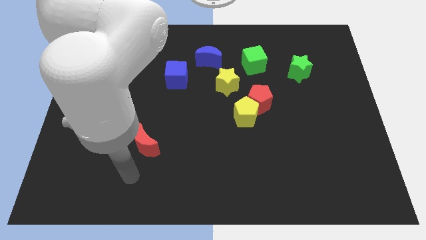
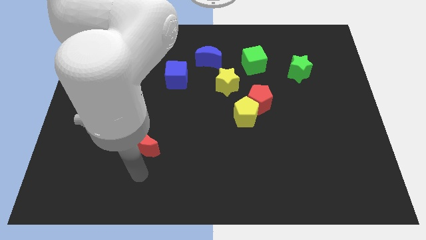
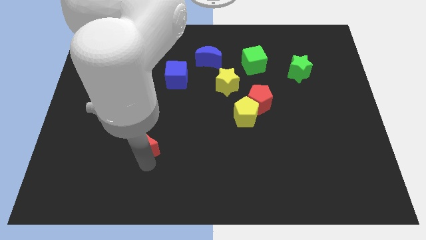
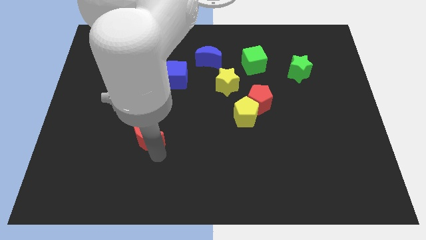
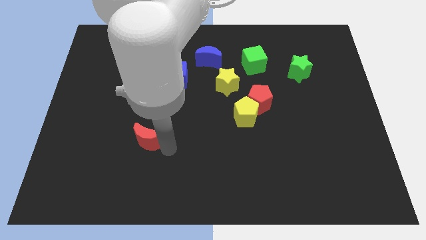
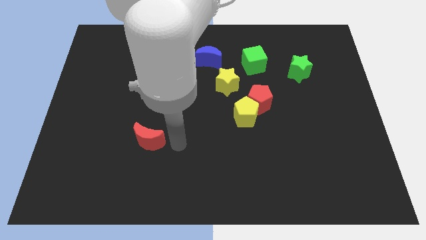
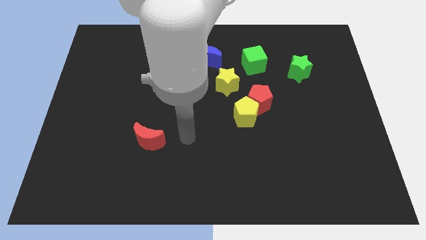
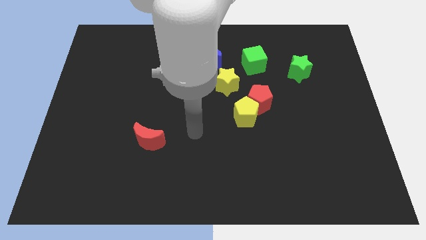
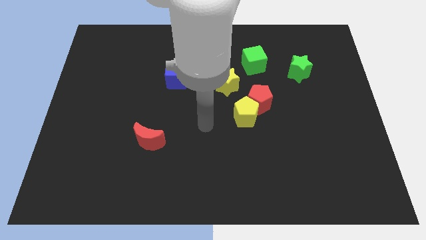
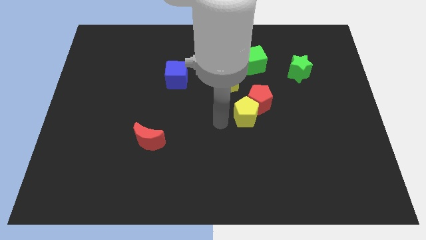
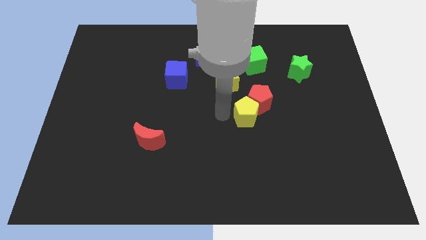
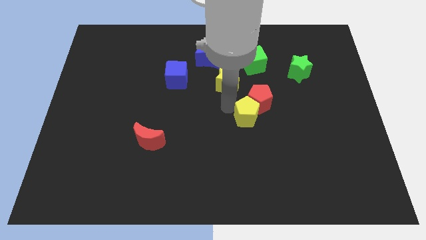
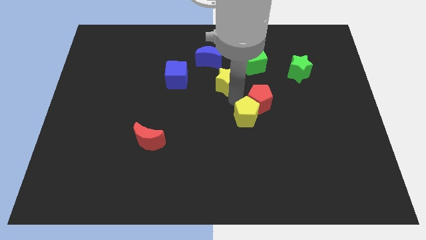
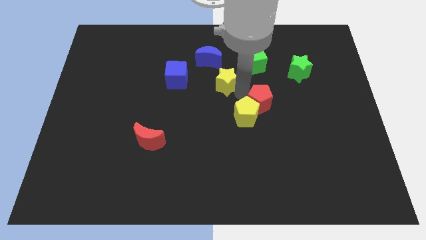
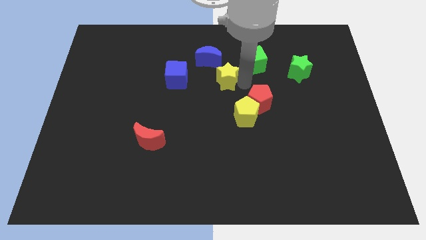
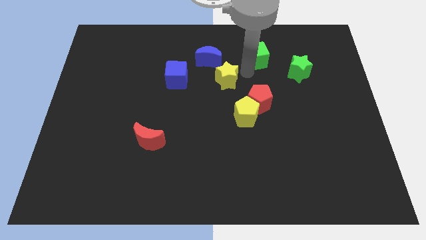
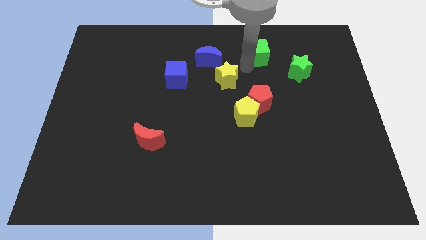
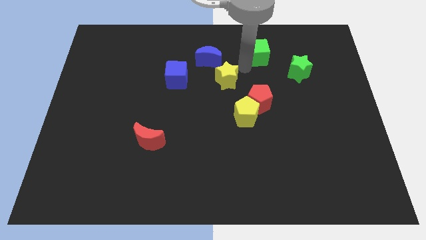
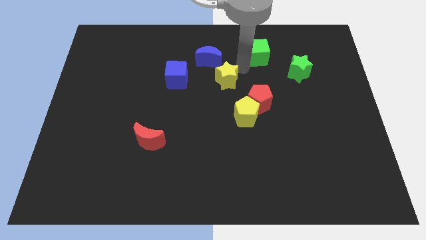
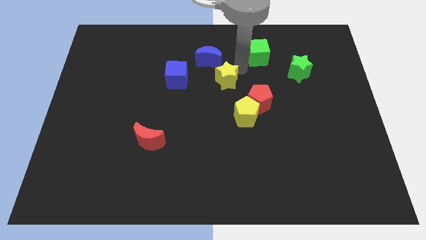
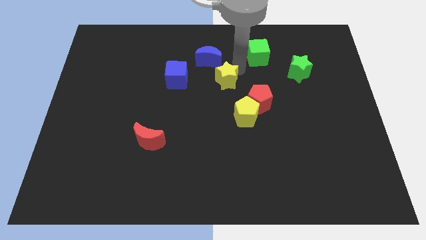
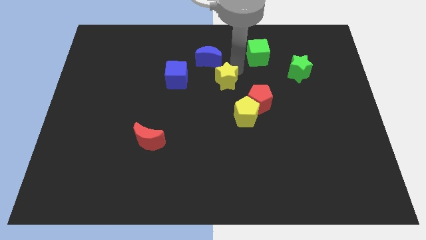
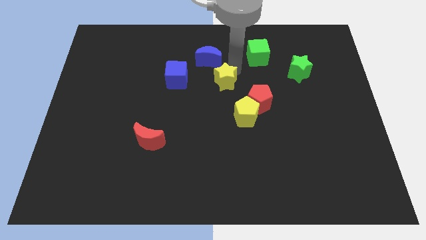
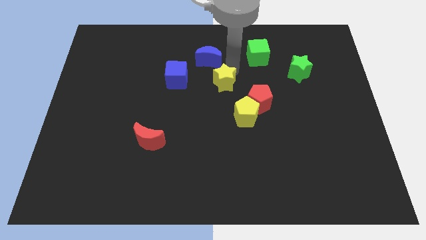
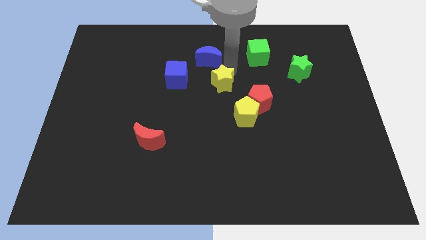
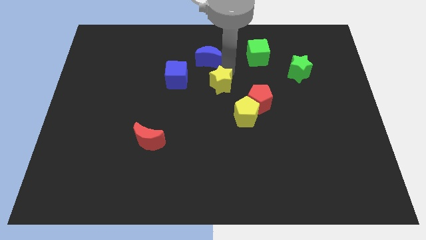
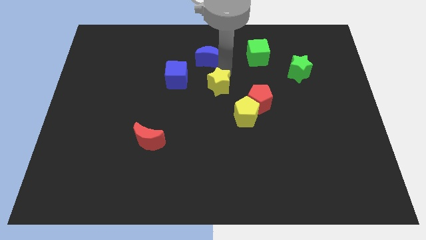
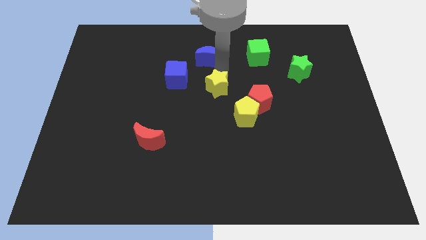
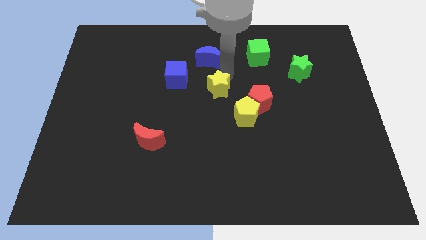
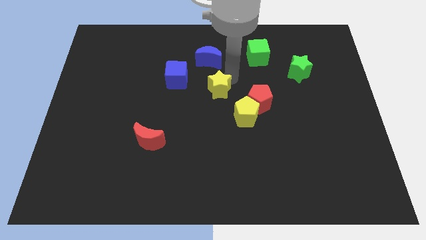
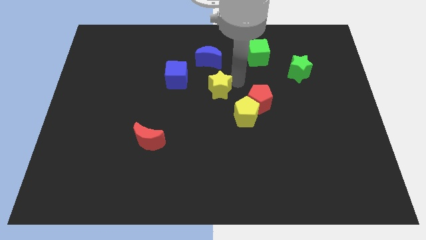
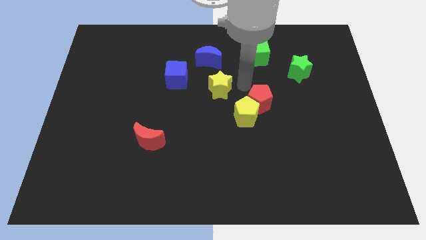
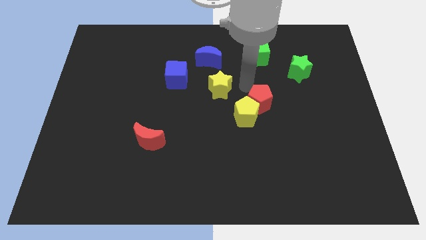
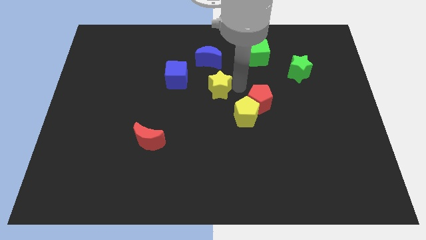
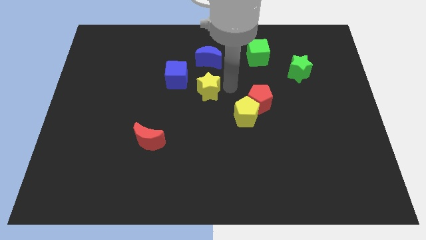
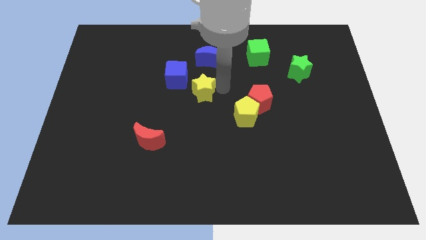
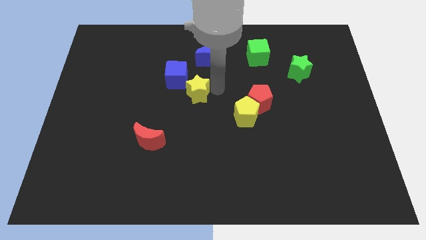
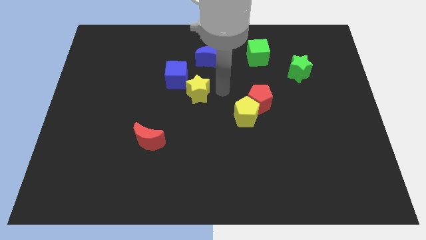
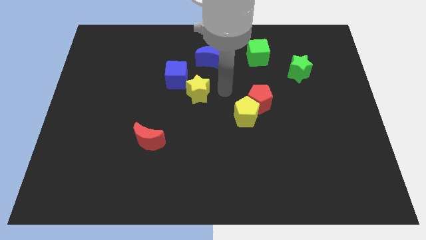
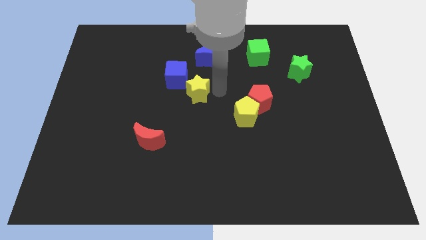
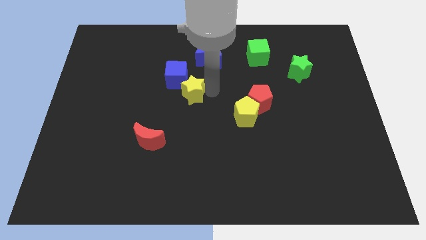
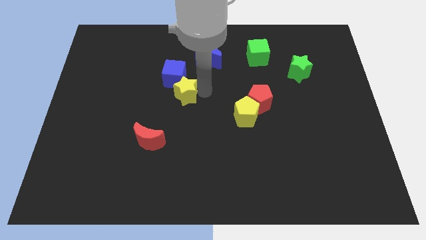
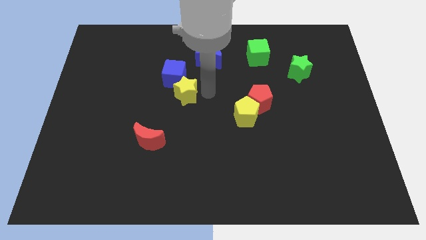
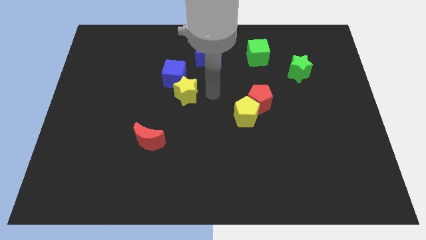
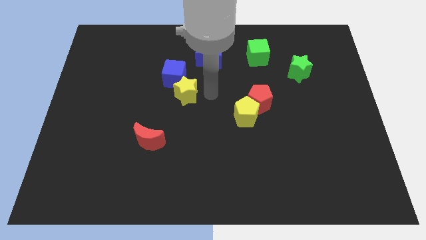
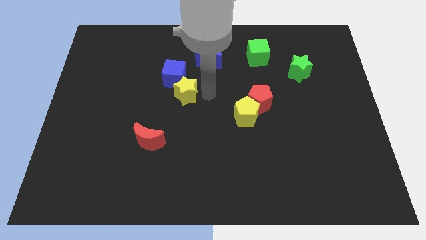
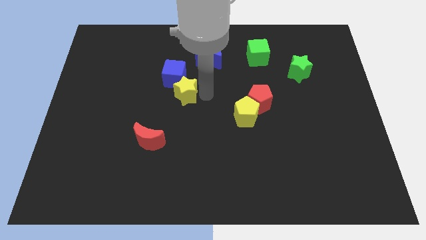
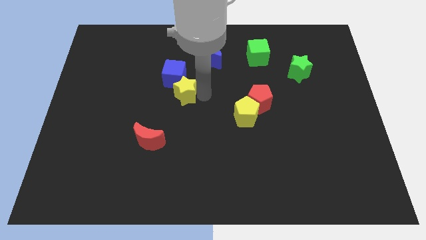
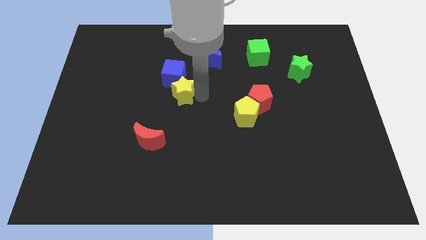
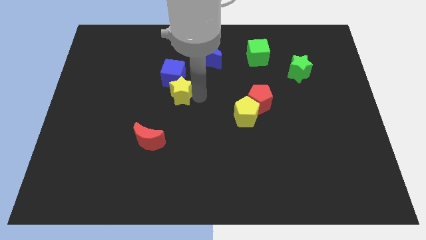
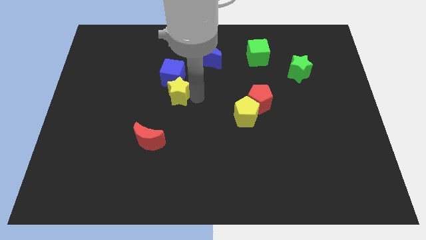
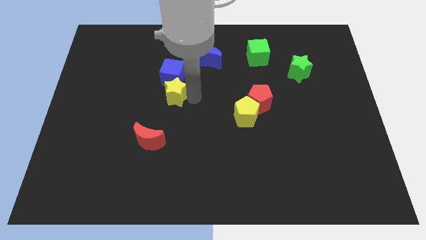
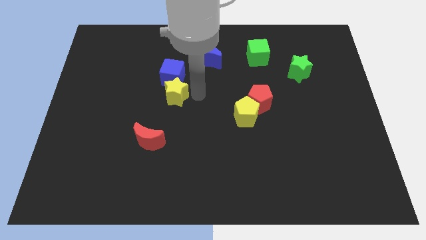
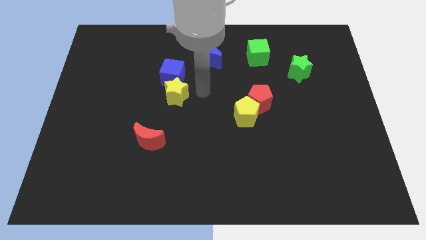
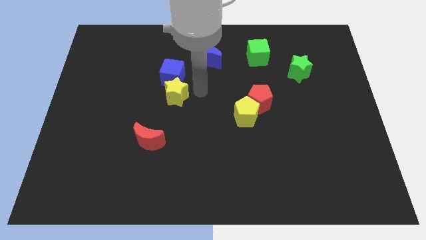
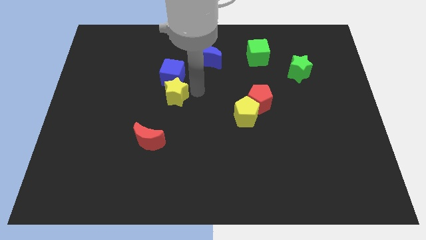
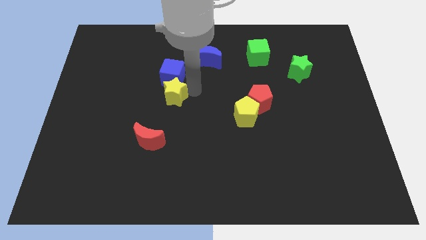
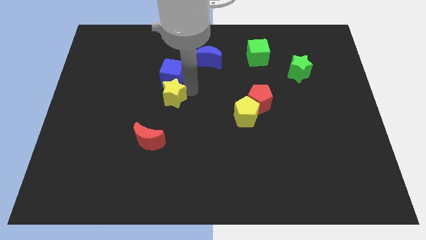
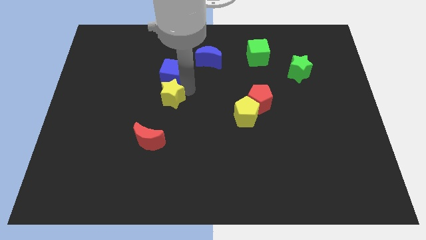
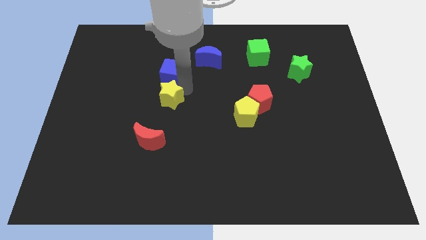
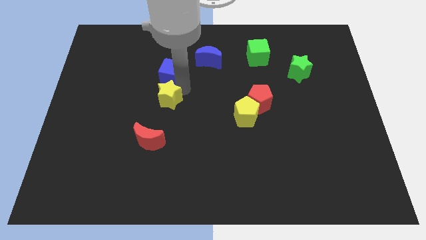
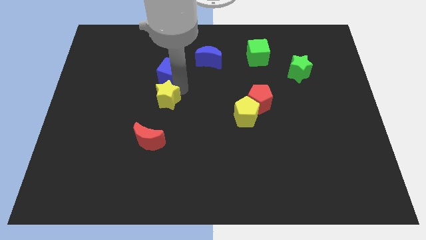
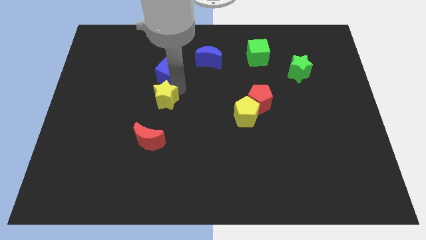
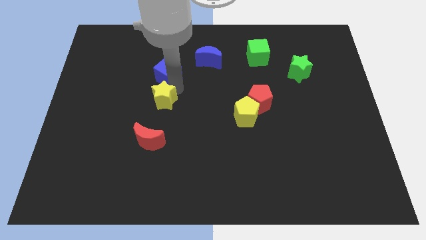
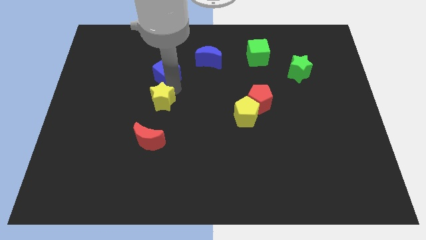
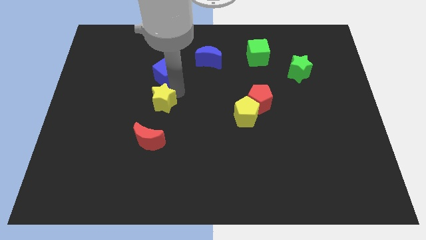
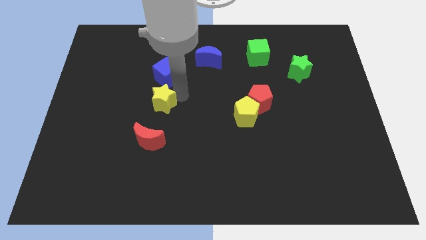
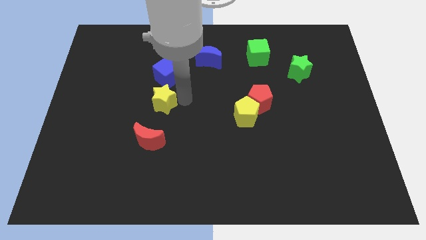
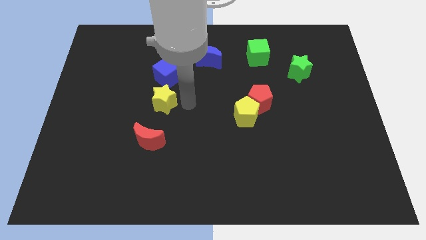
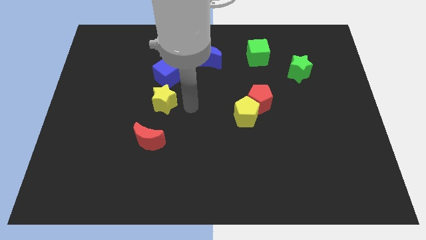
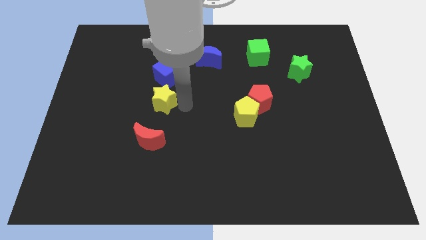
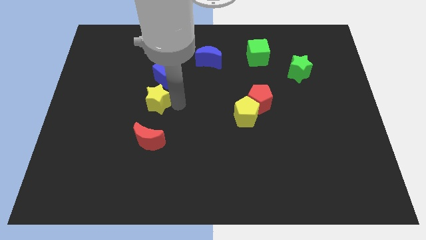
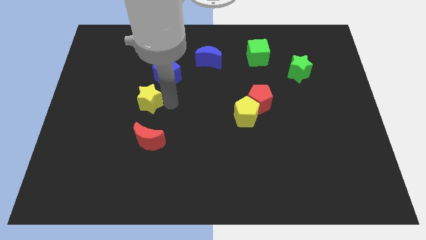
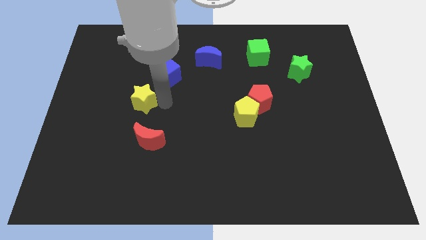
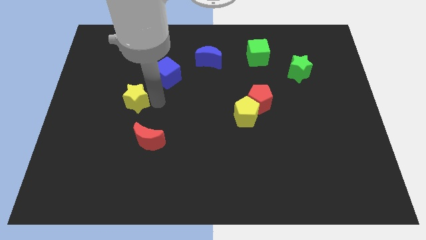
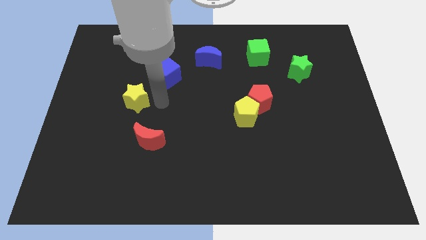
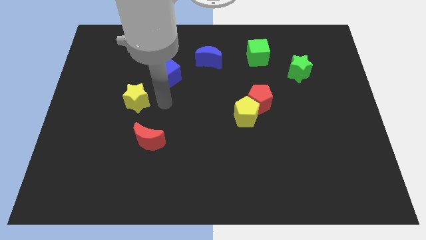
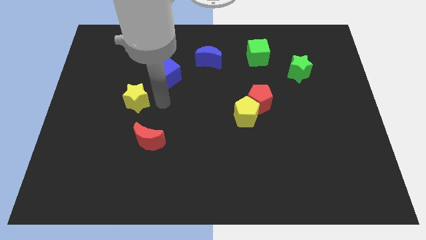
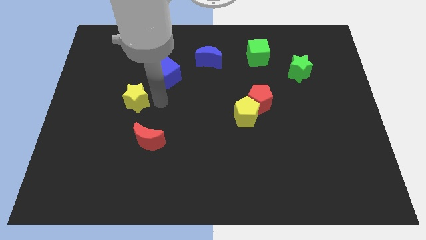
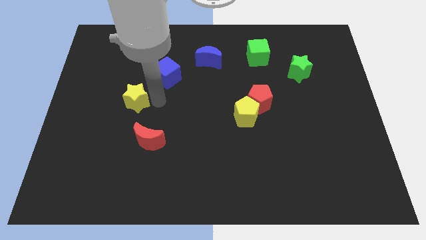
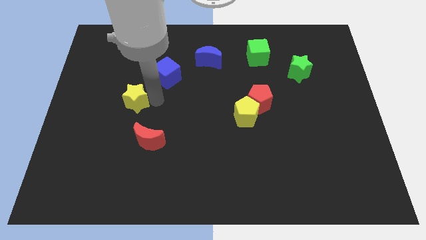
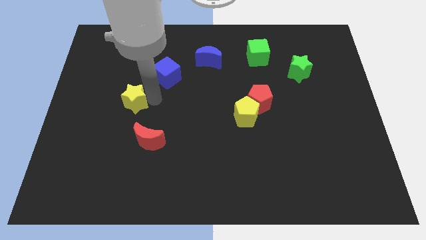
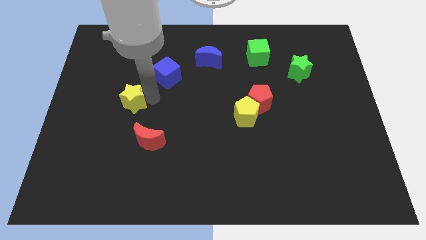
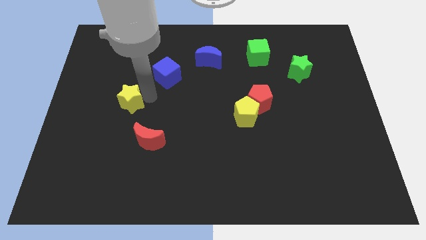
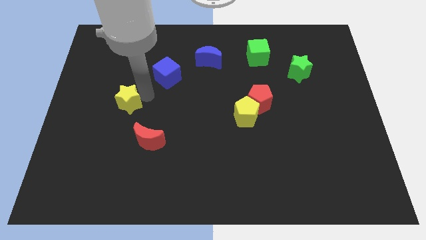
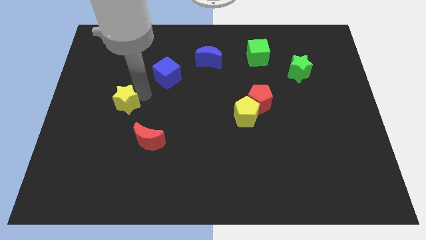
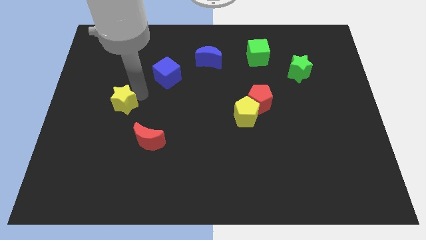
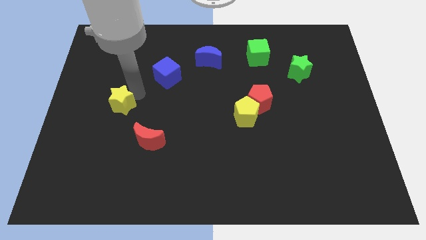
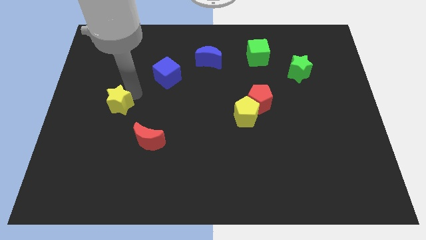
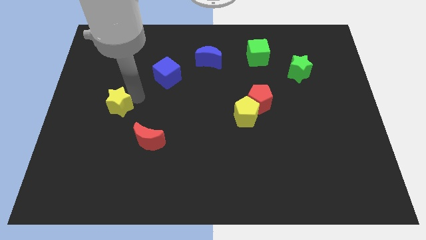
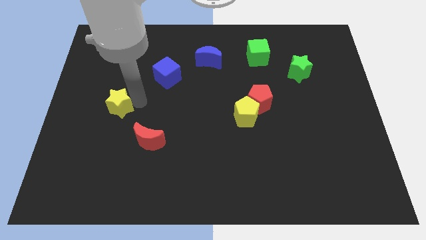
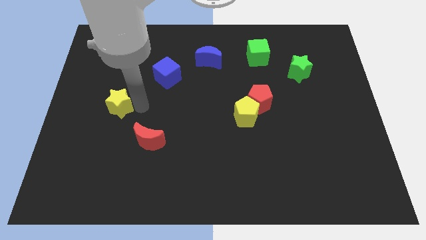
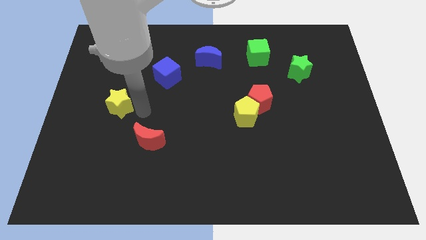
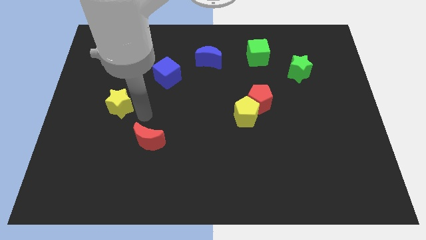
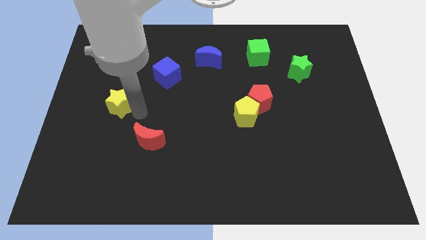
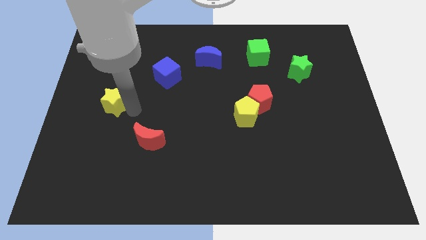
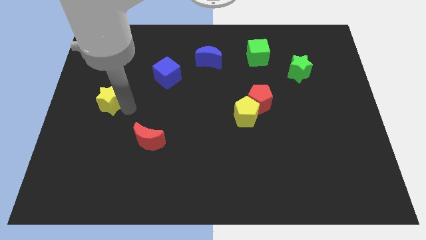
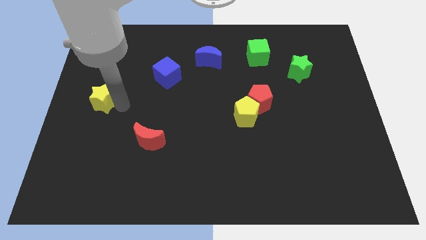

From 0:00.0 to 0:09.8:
put the yellow star to the left side
